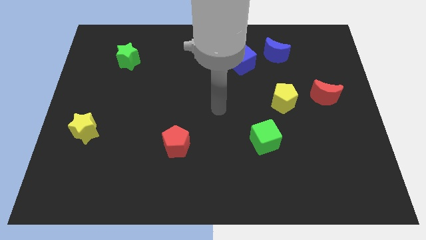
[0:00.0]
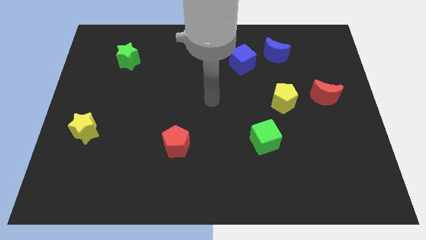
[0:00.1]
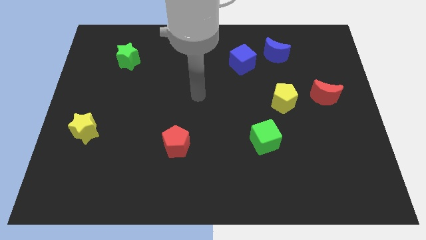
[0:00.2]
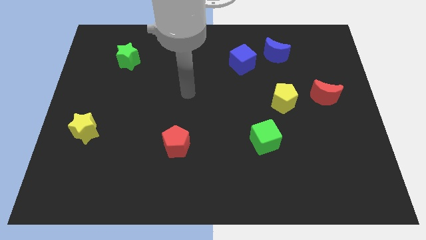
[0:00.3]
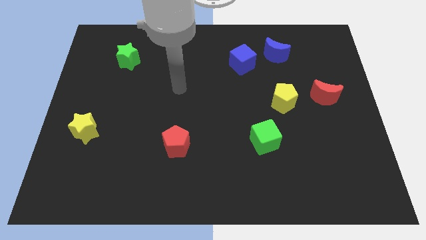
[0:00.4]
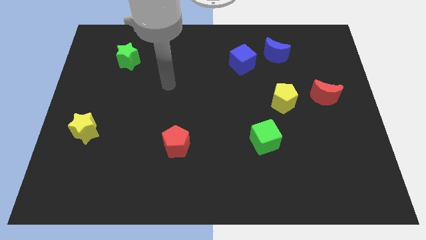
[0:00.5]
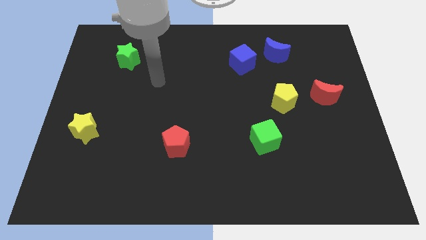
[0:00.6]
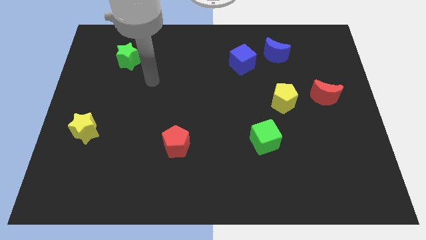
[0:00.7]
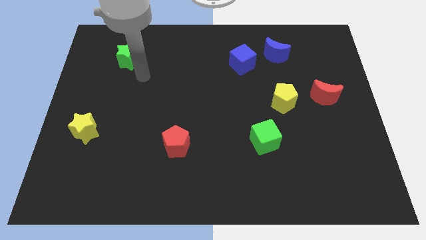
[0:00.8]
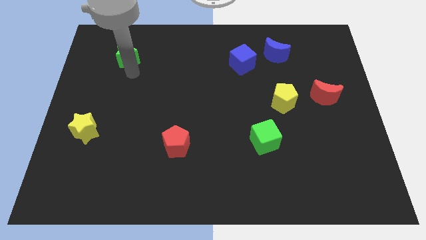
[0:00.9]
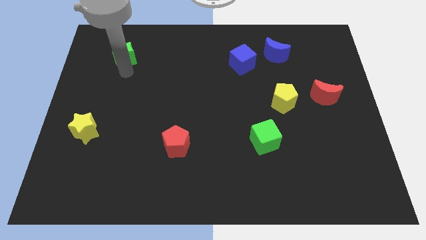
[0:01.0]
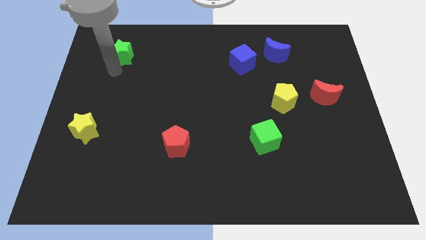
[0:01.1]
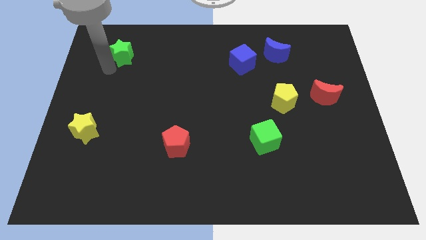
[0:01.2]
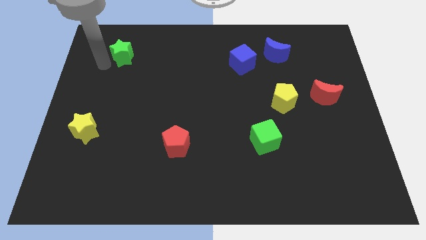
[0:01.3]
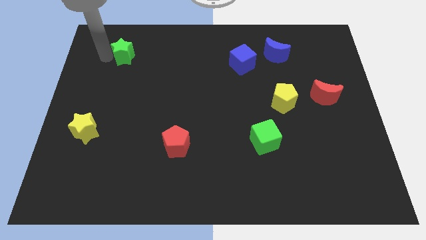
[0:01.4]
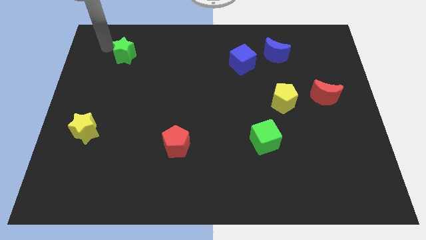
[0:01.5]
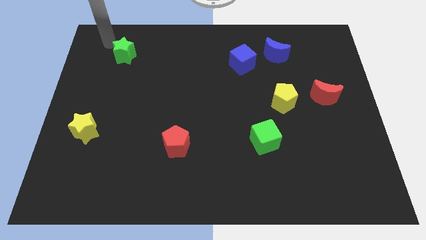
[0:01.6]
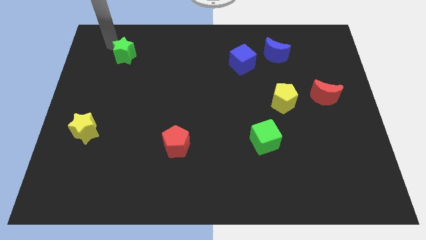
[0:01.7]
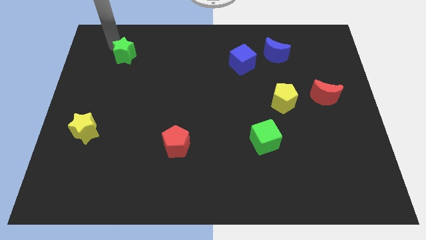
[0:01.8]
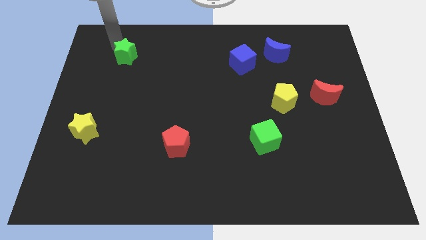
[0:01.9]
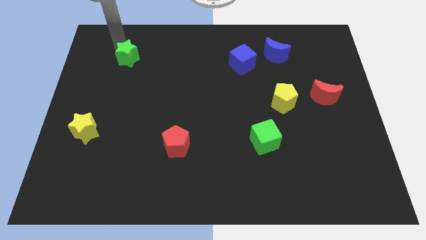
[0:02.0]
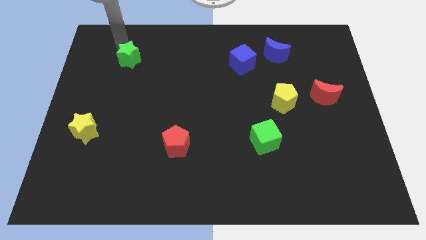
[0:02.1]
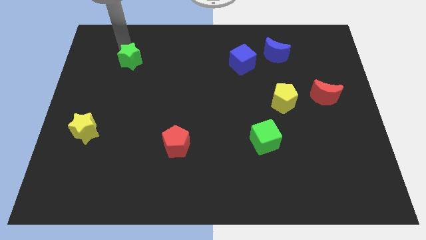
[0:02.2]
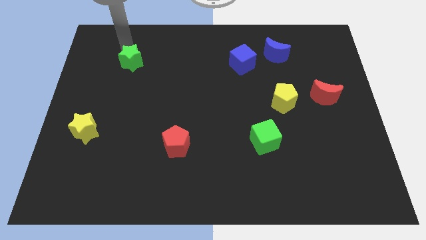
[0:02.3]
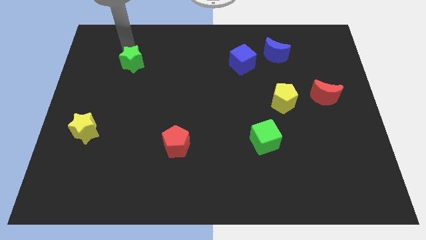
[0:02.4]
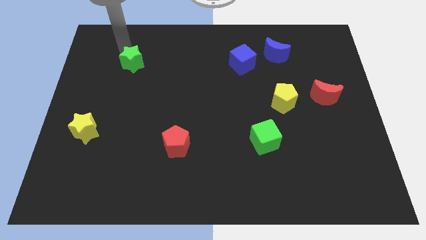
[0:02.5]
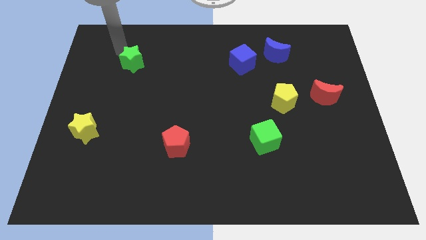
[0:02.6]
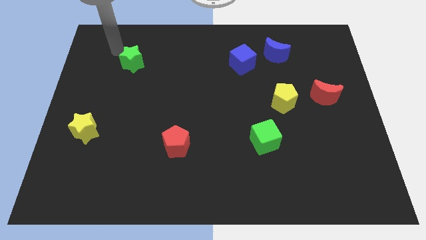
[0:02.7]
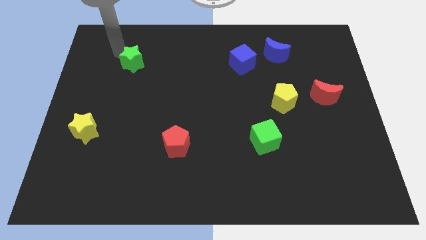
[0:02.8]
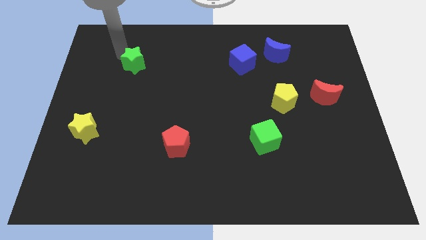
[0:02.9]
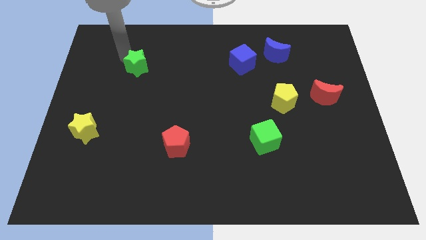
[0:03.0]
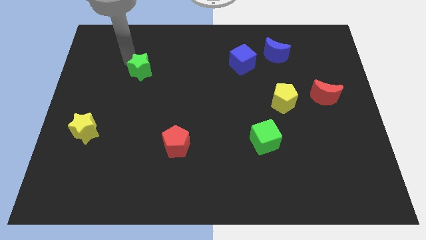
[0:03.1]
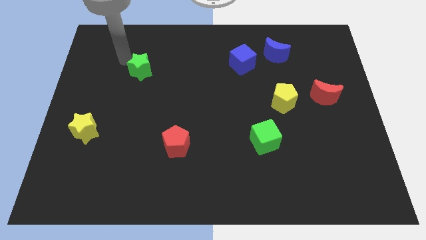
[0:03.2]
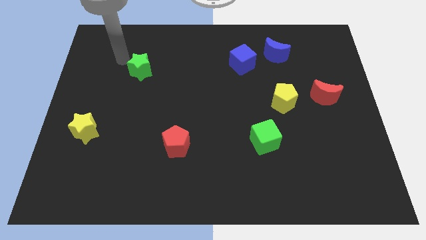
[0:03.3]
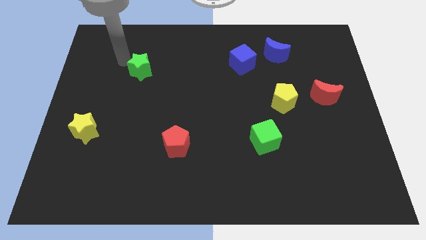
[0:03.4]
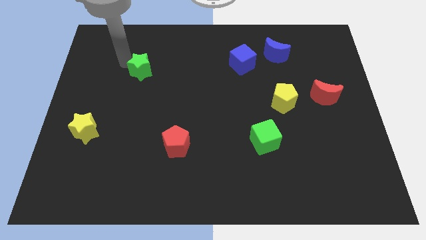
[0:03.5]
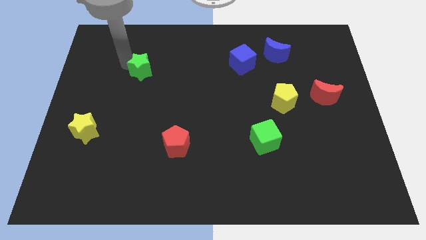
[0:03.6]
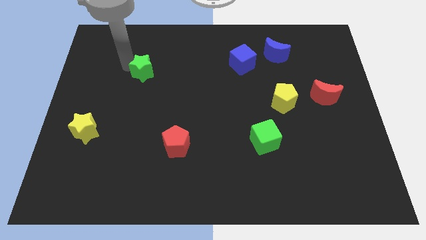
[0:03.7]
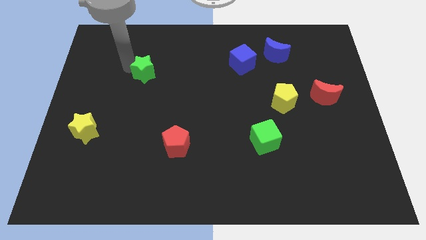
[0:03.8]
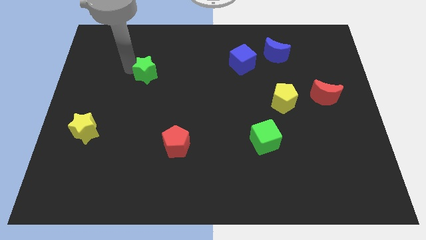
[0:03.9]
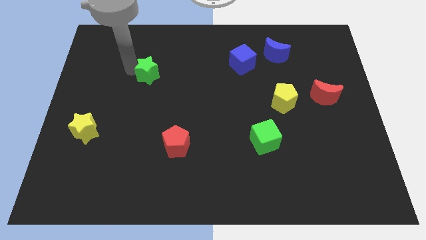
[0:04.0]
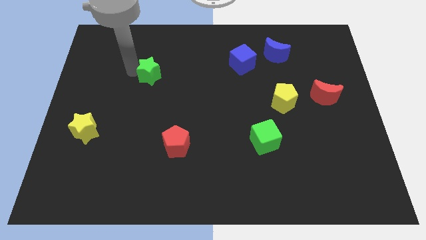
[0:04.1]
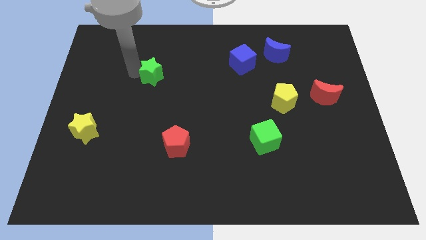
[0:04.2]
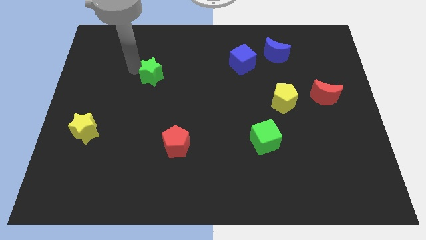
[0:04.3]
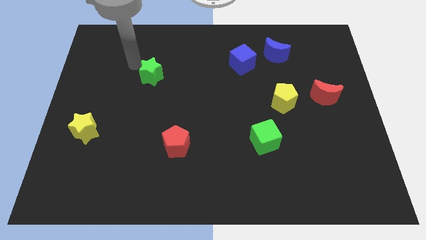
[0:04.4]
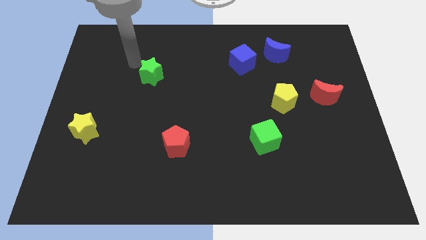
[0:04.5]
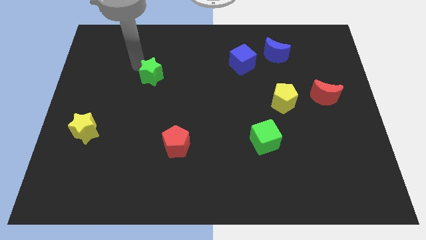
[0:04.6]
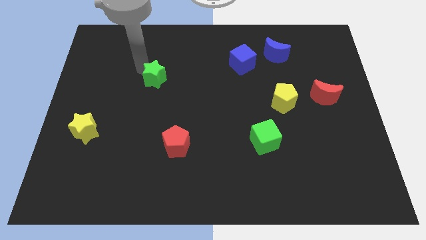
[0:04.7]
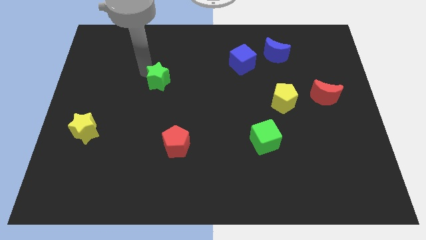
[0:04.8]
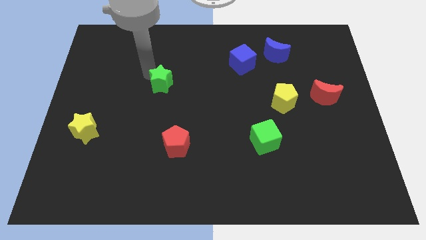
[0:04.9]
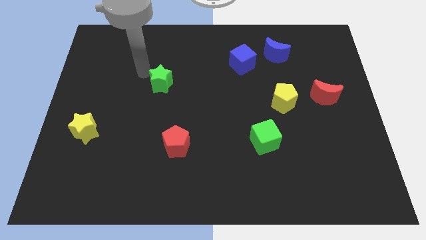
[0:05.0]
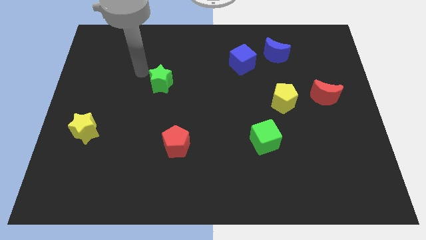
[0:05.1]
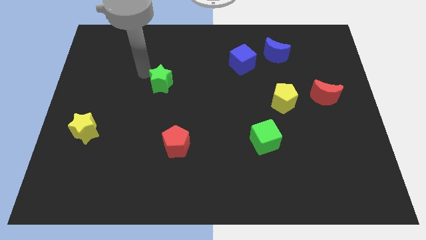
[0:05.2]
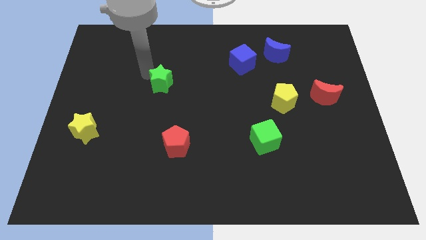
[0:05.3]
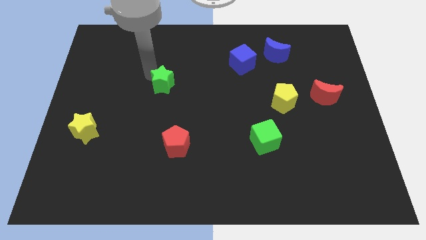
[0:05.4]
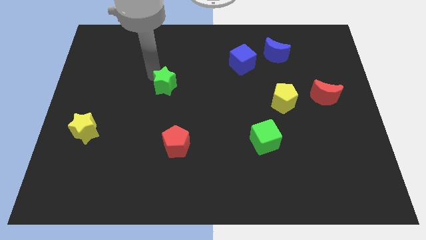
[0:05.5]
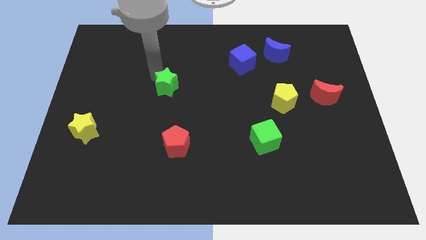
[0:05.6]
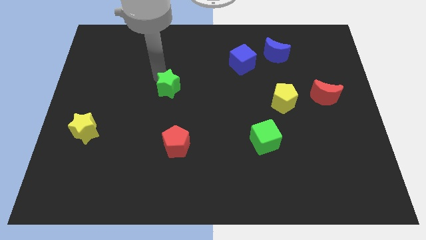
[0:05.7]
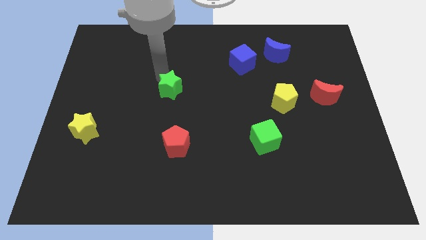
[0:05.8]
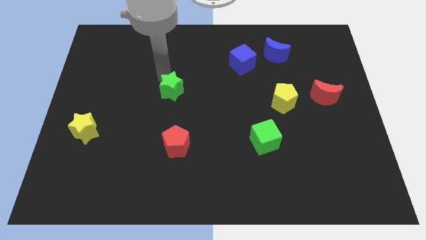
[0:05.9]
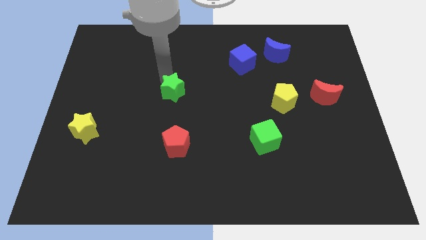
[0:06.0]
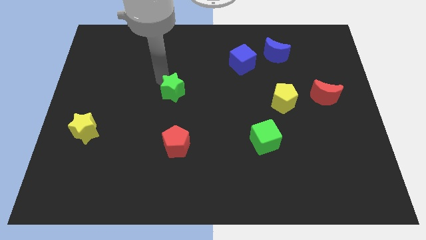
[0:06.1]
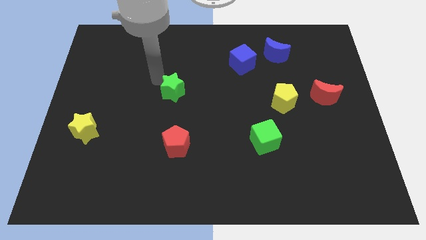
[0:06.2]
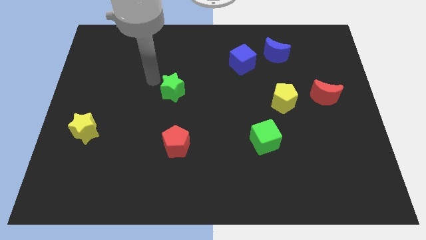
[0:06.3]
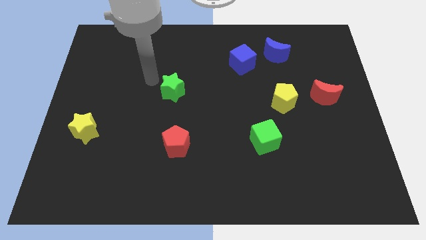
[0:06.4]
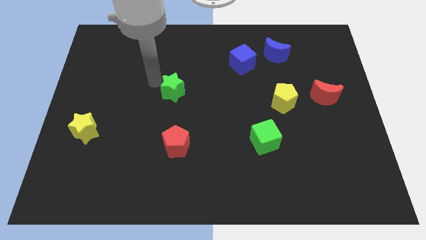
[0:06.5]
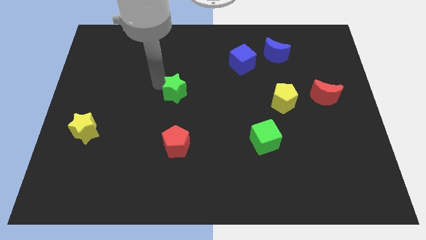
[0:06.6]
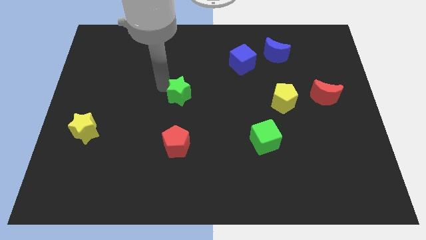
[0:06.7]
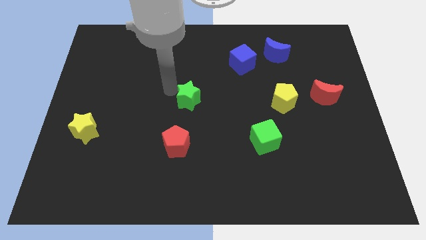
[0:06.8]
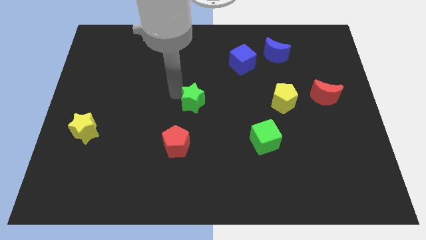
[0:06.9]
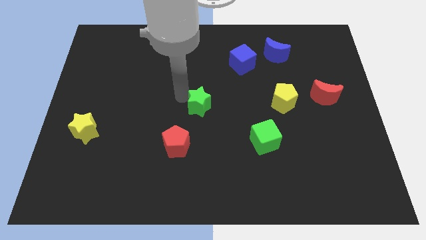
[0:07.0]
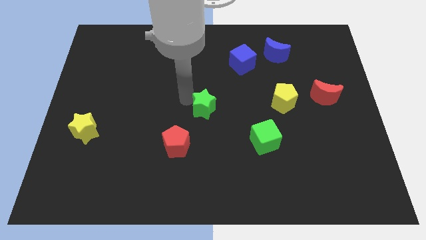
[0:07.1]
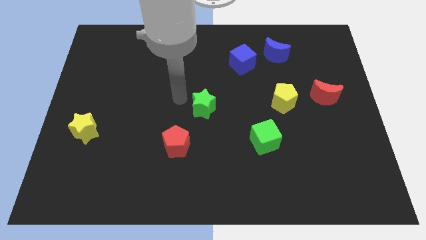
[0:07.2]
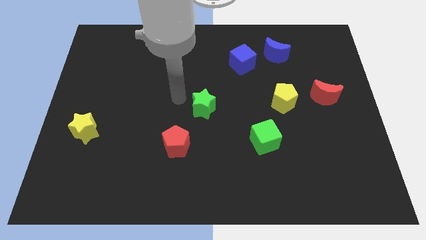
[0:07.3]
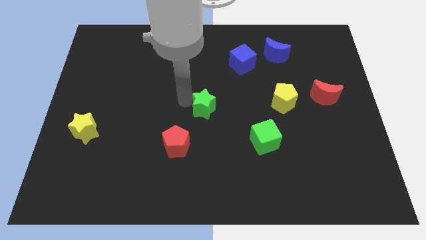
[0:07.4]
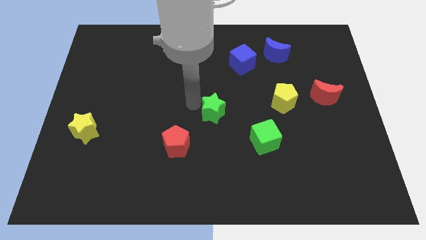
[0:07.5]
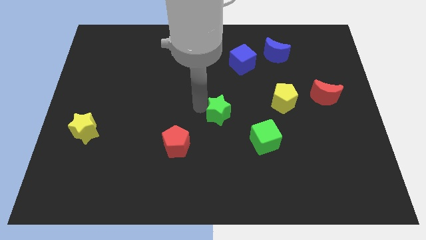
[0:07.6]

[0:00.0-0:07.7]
slide the green star to the top left side of the green cube
